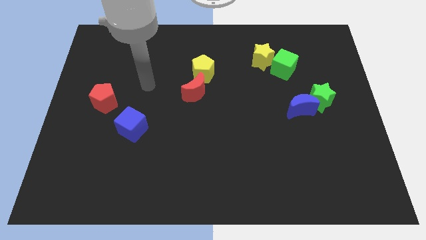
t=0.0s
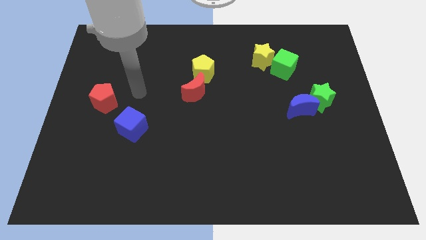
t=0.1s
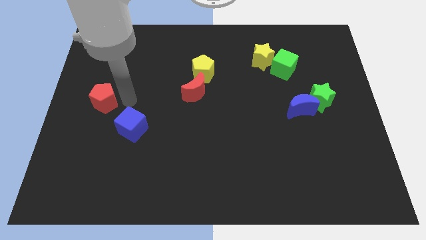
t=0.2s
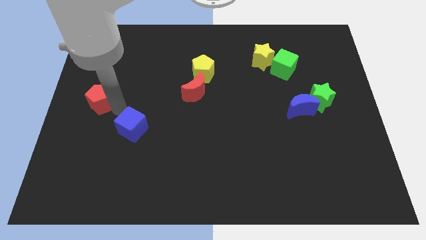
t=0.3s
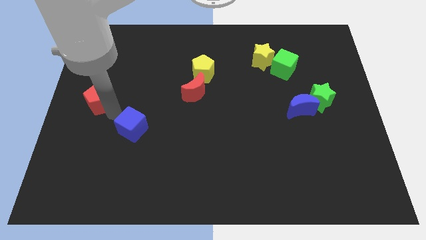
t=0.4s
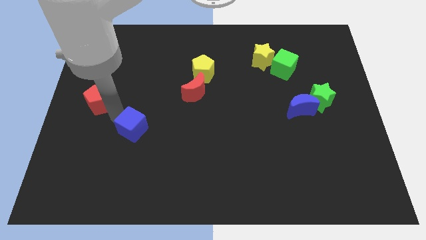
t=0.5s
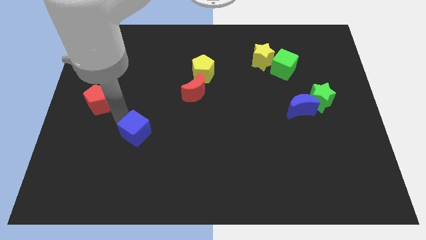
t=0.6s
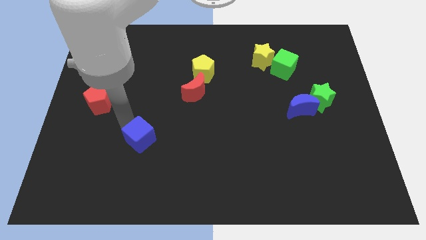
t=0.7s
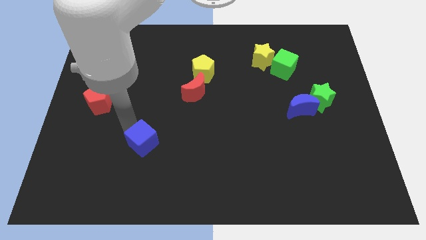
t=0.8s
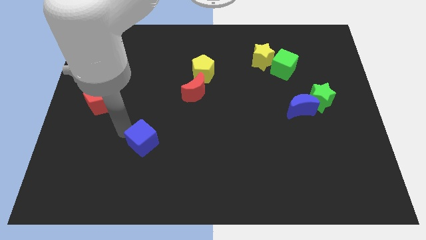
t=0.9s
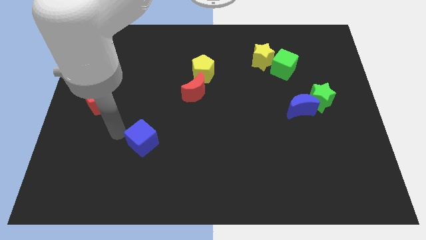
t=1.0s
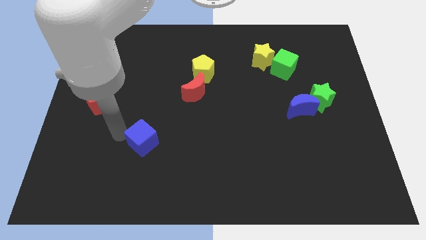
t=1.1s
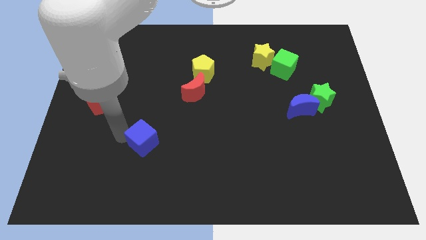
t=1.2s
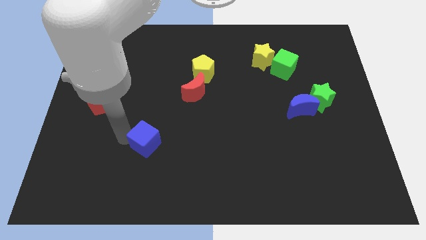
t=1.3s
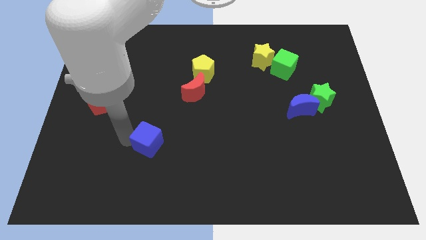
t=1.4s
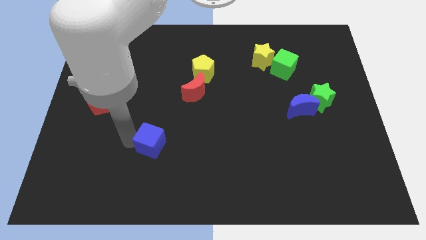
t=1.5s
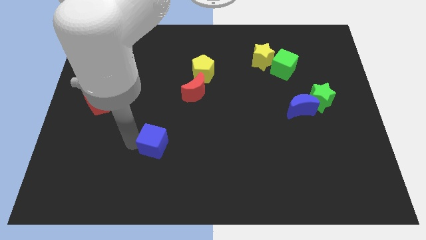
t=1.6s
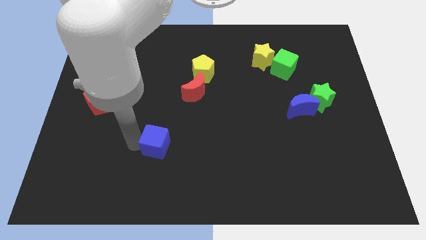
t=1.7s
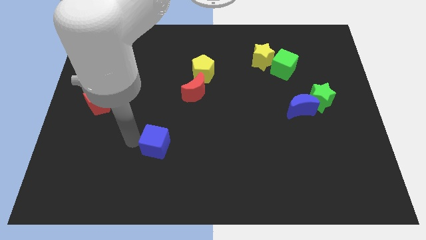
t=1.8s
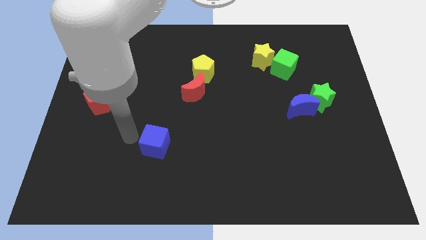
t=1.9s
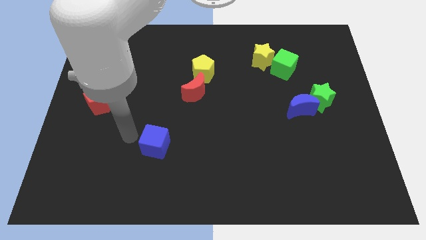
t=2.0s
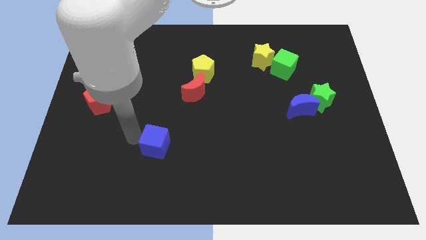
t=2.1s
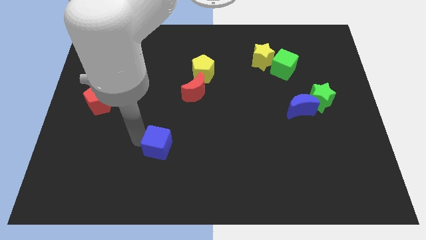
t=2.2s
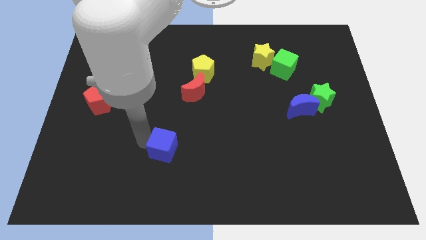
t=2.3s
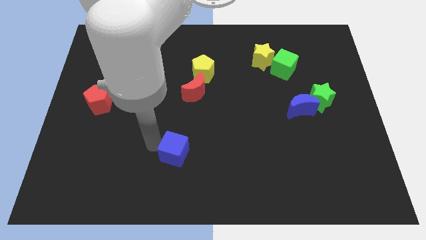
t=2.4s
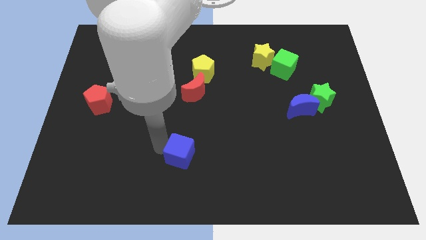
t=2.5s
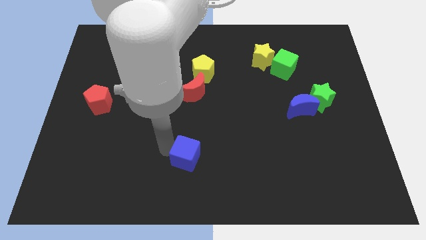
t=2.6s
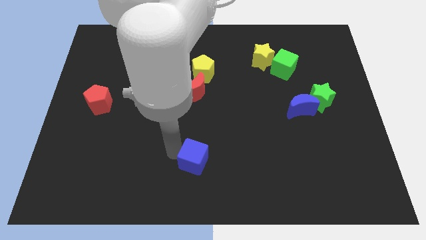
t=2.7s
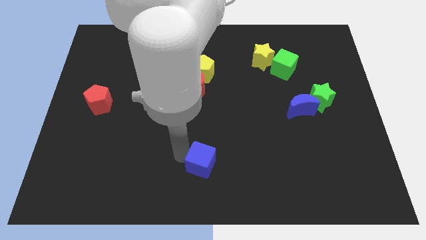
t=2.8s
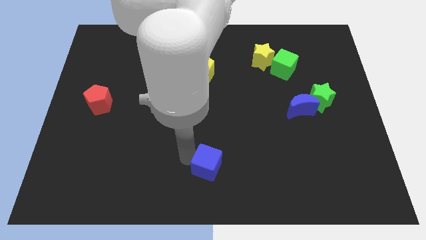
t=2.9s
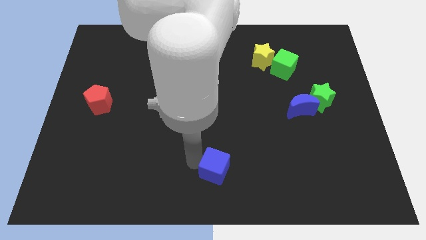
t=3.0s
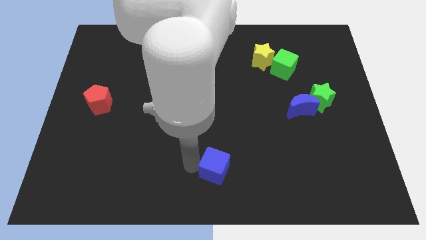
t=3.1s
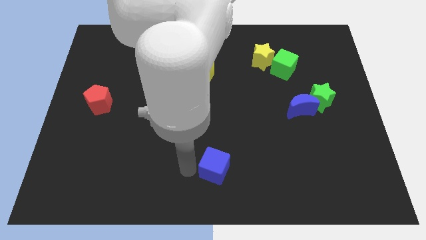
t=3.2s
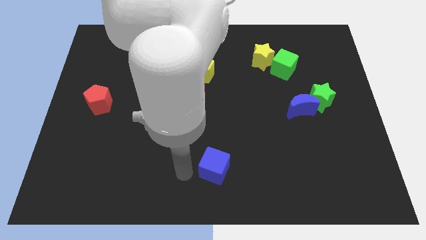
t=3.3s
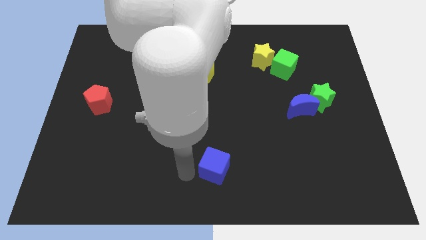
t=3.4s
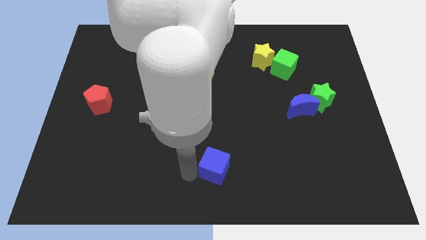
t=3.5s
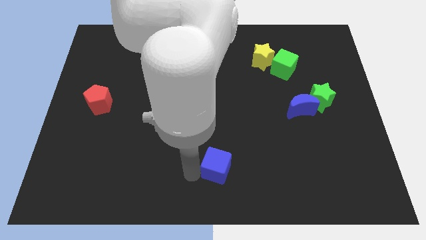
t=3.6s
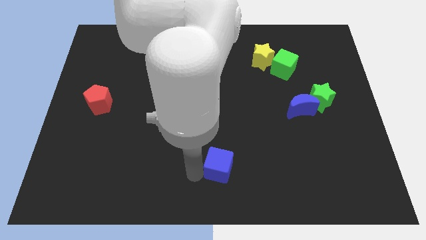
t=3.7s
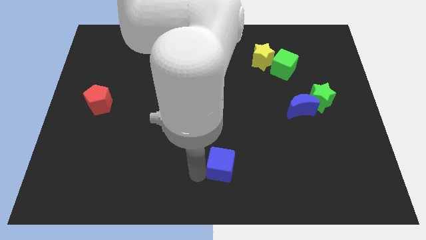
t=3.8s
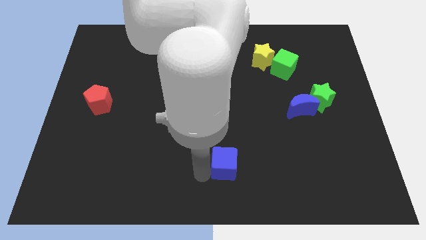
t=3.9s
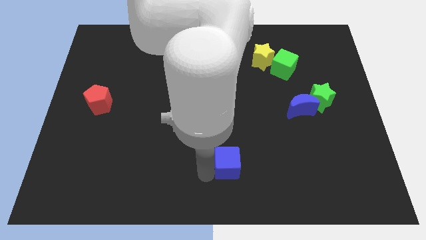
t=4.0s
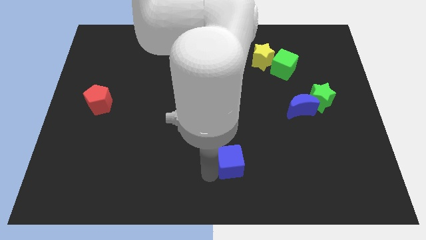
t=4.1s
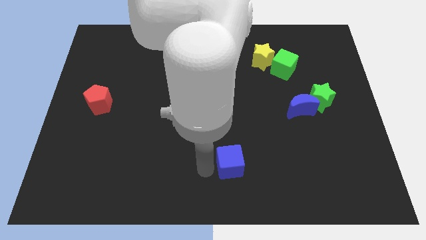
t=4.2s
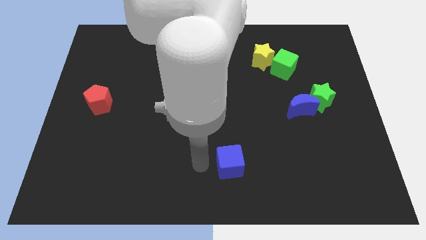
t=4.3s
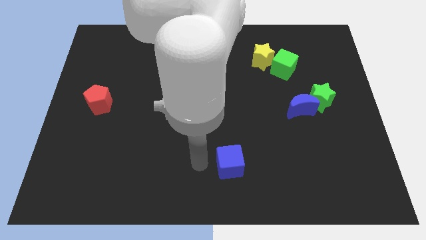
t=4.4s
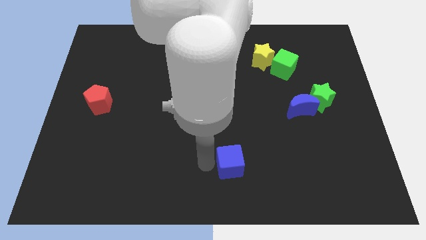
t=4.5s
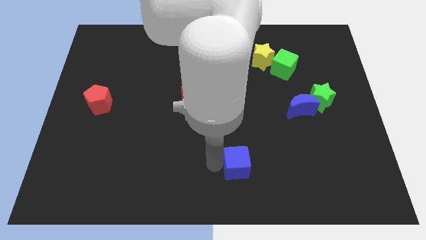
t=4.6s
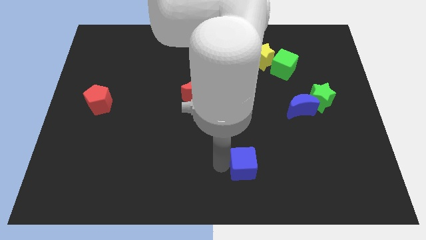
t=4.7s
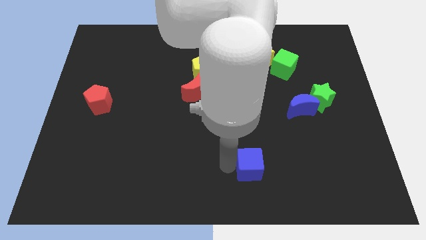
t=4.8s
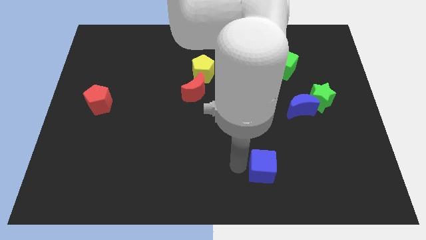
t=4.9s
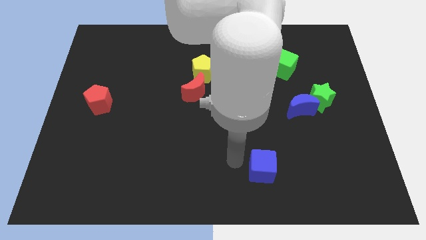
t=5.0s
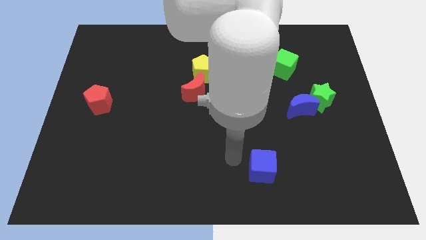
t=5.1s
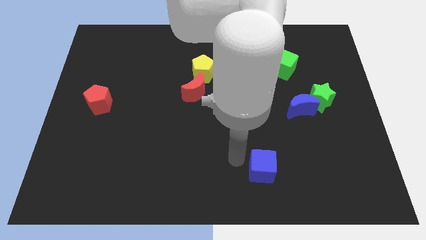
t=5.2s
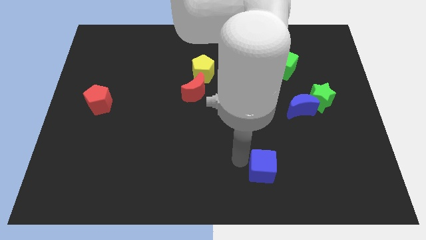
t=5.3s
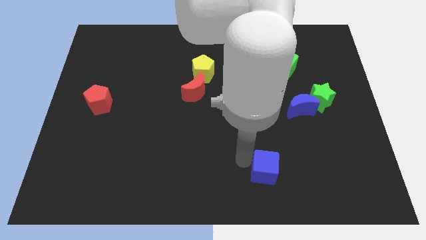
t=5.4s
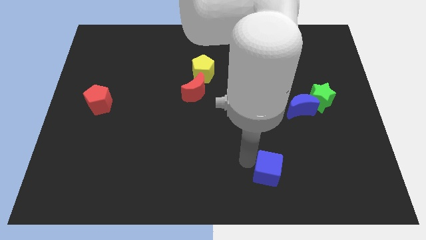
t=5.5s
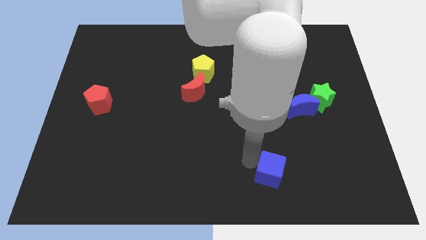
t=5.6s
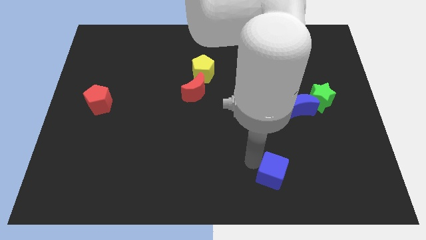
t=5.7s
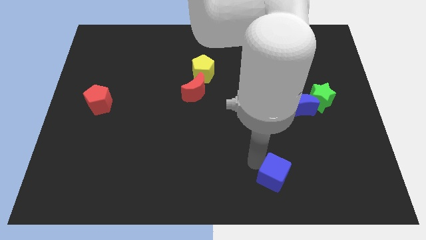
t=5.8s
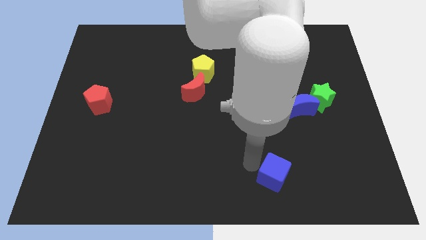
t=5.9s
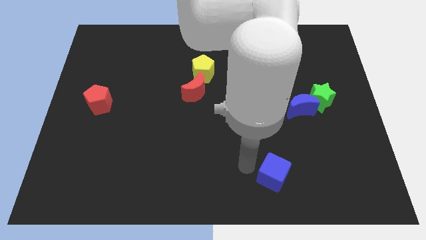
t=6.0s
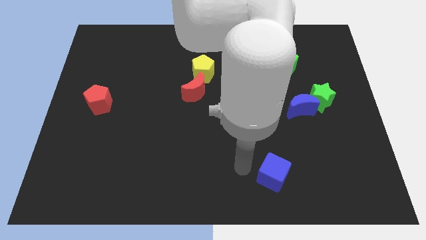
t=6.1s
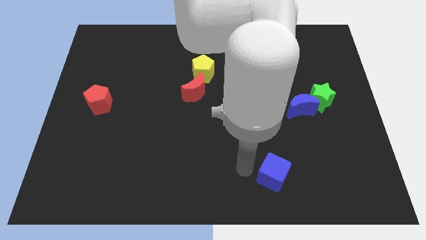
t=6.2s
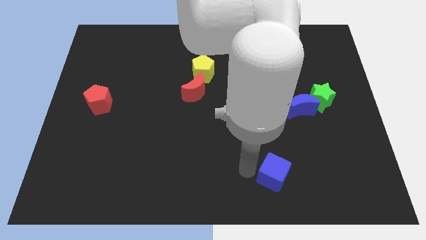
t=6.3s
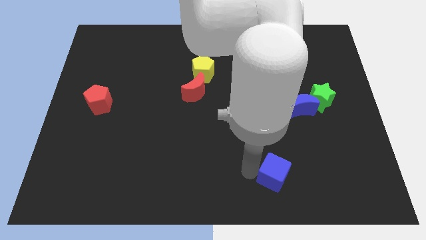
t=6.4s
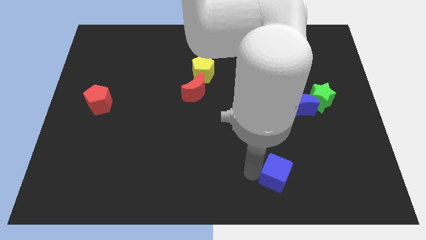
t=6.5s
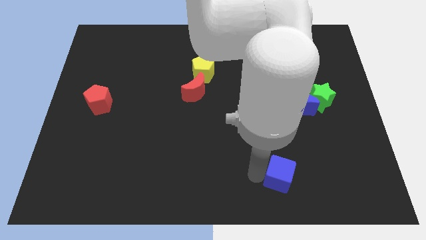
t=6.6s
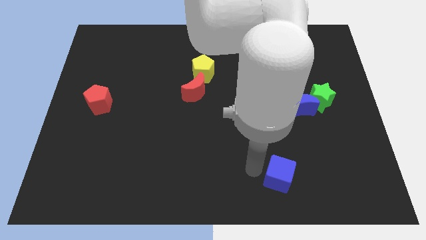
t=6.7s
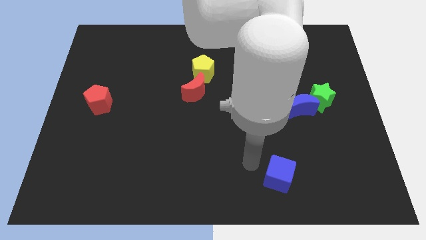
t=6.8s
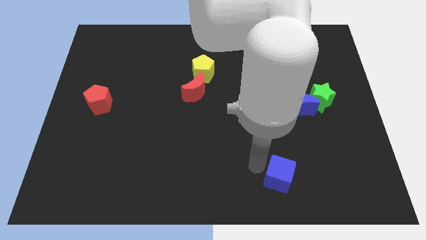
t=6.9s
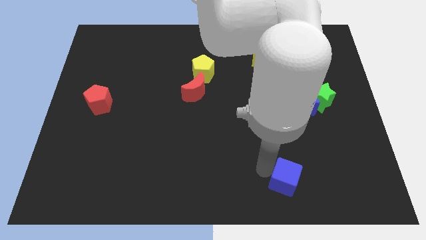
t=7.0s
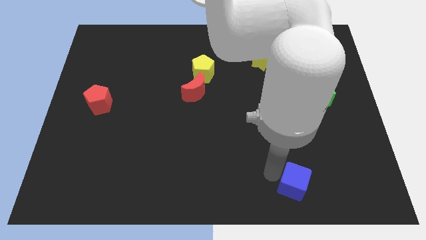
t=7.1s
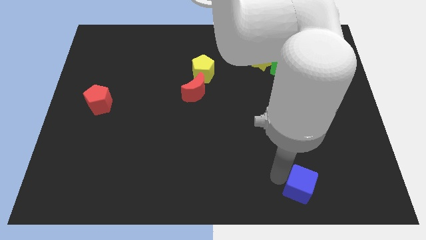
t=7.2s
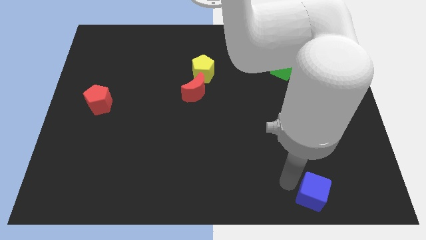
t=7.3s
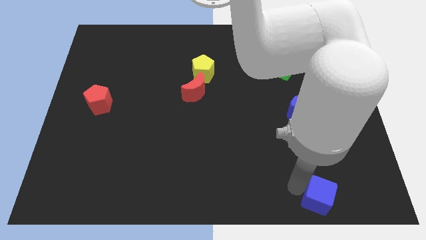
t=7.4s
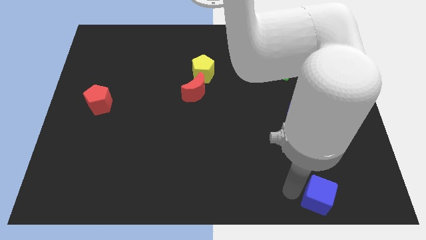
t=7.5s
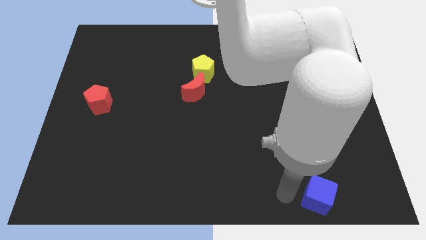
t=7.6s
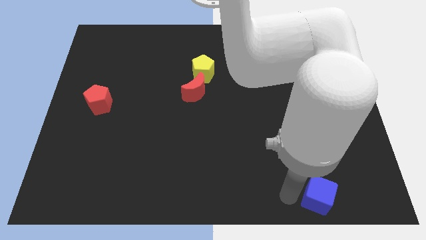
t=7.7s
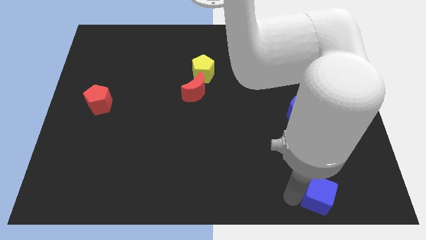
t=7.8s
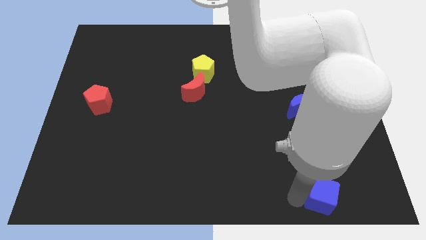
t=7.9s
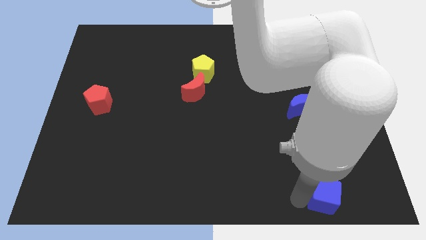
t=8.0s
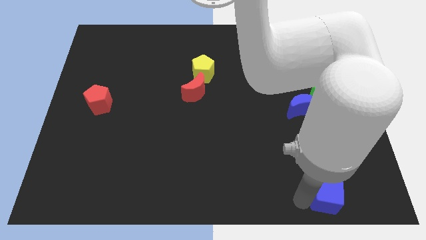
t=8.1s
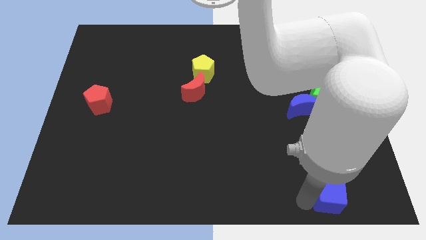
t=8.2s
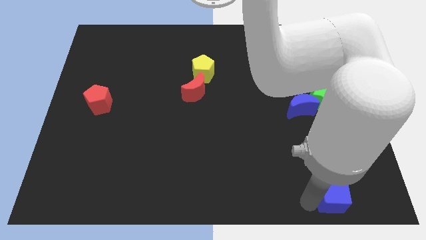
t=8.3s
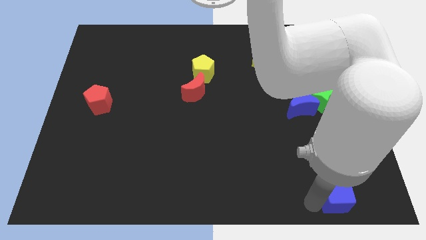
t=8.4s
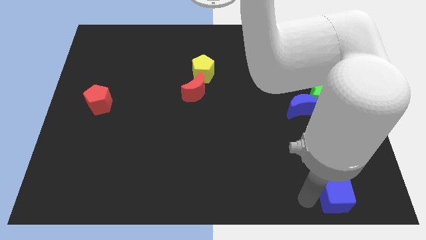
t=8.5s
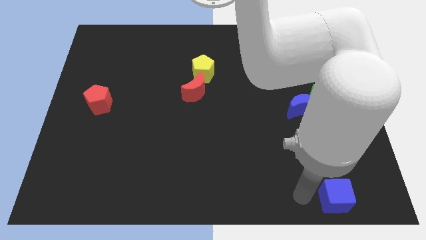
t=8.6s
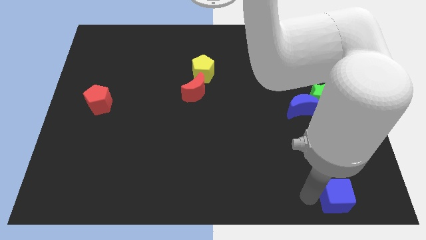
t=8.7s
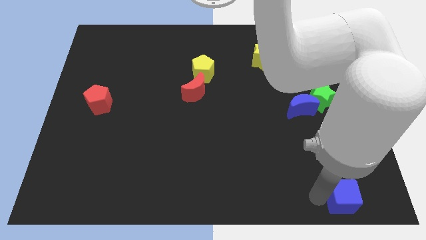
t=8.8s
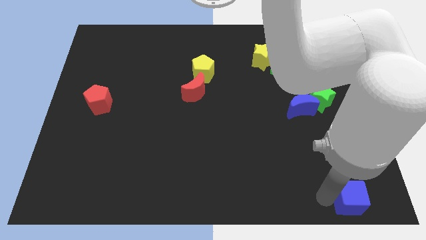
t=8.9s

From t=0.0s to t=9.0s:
push the blue cube to the bottom right of the board
